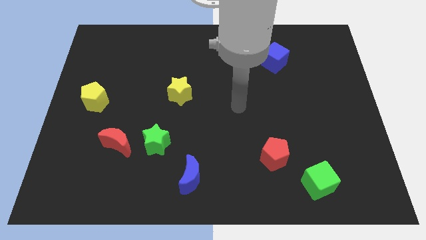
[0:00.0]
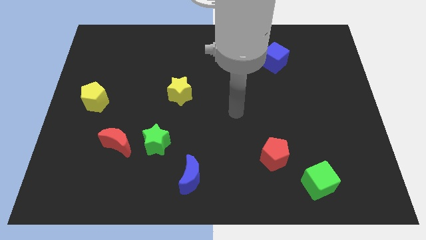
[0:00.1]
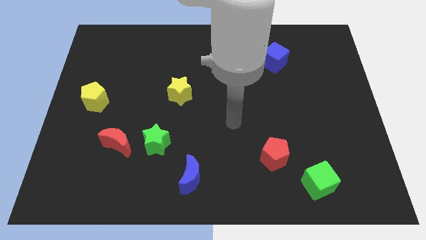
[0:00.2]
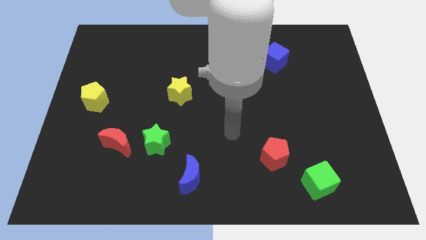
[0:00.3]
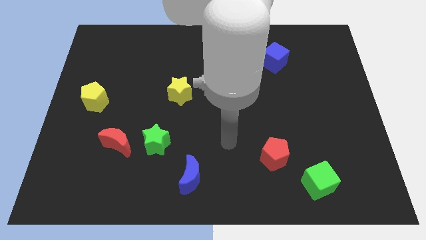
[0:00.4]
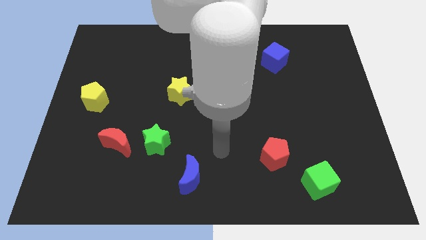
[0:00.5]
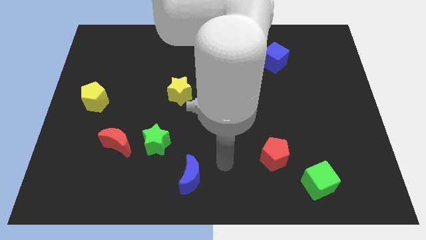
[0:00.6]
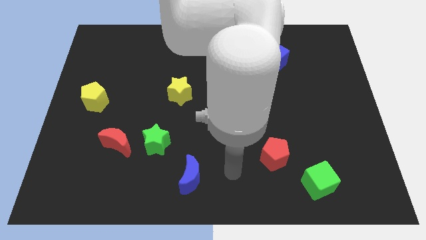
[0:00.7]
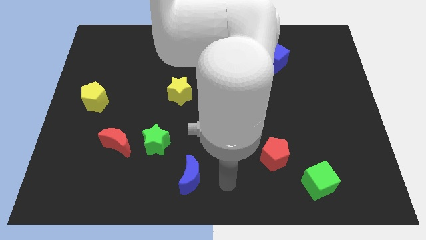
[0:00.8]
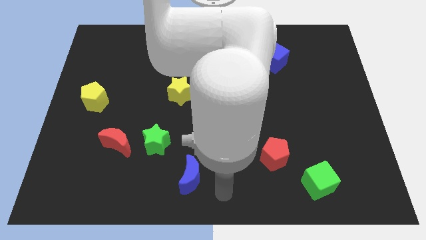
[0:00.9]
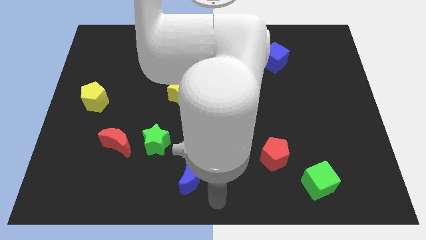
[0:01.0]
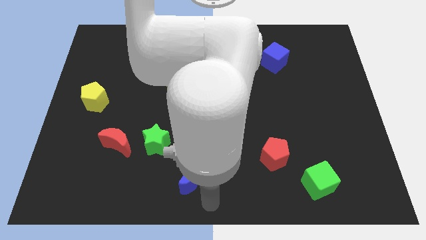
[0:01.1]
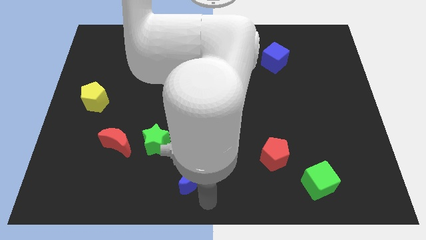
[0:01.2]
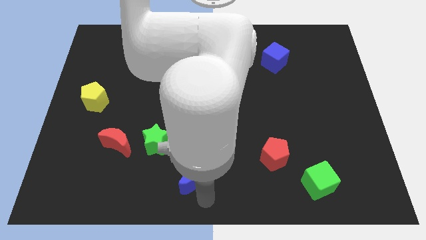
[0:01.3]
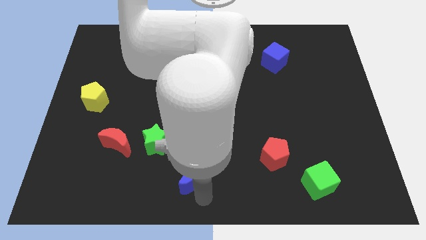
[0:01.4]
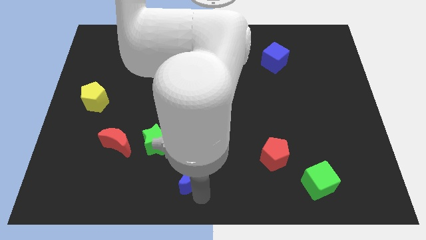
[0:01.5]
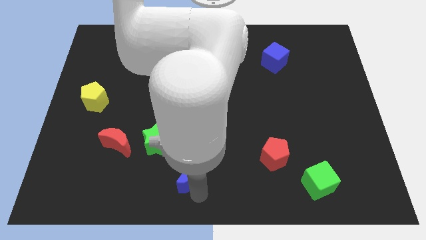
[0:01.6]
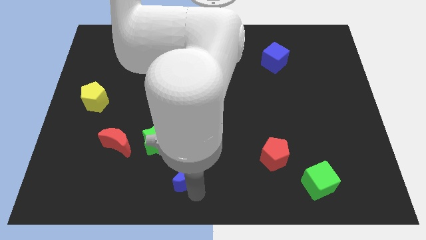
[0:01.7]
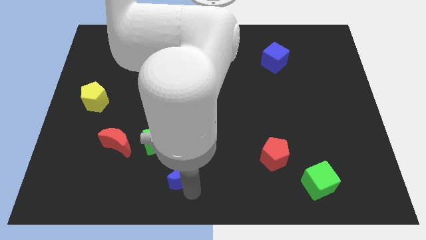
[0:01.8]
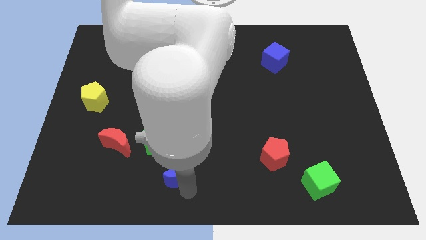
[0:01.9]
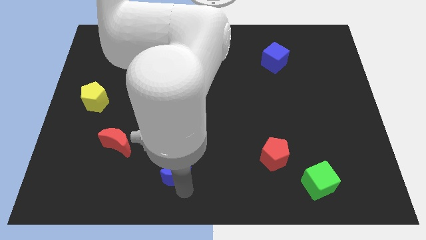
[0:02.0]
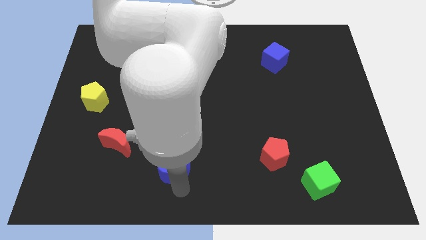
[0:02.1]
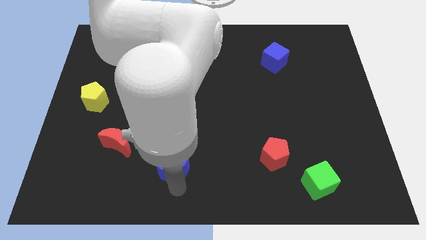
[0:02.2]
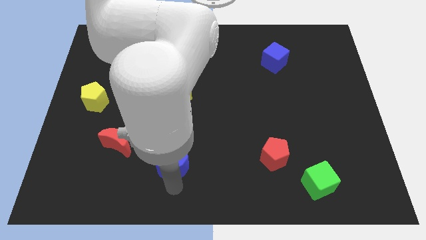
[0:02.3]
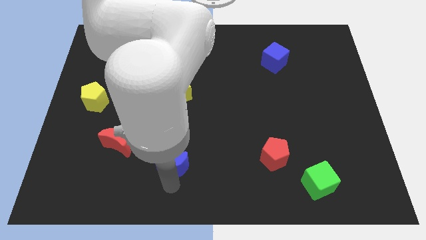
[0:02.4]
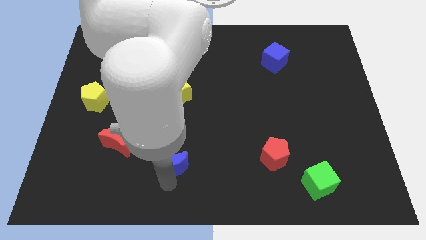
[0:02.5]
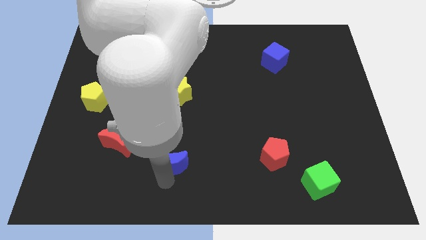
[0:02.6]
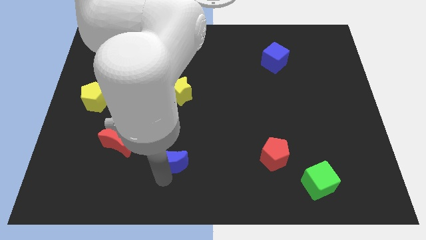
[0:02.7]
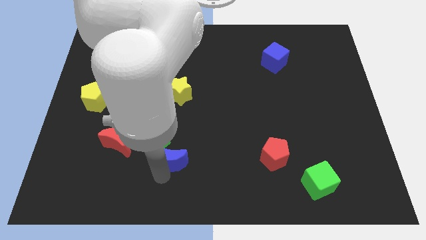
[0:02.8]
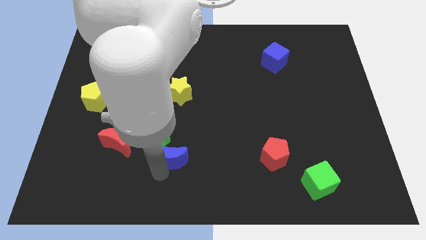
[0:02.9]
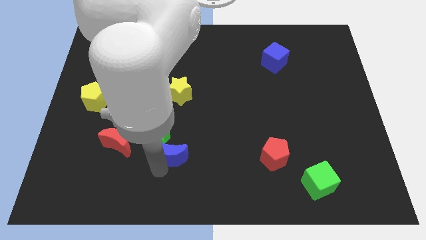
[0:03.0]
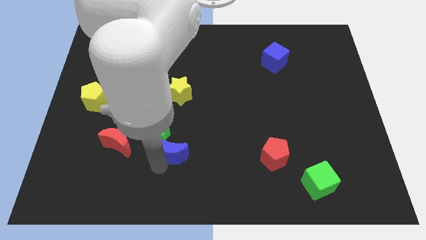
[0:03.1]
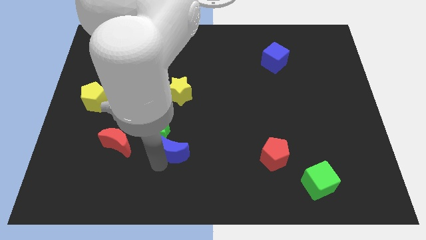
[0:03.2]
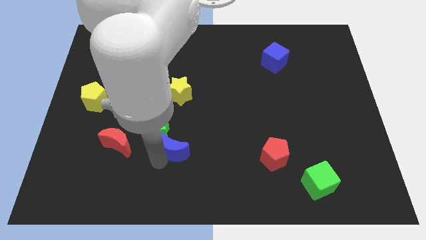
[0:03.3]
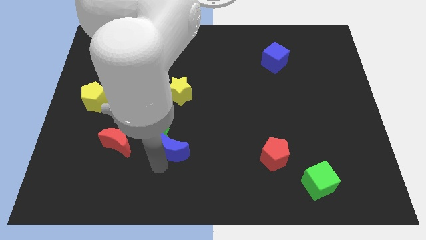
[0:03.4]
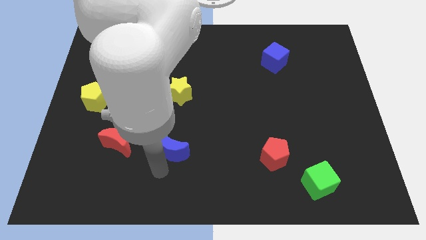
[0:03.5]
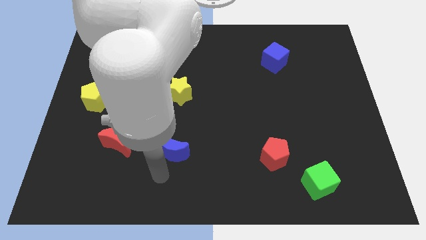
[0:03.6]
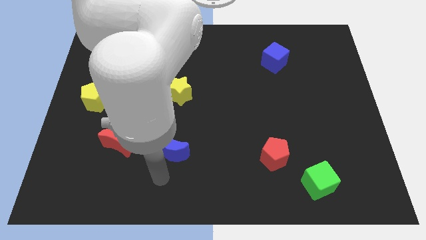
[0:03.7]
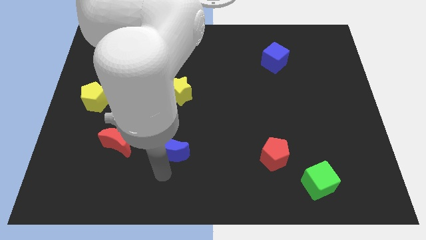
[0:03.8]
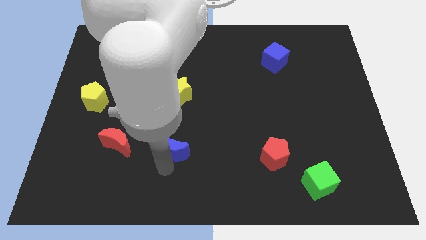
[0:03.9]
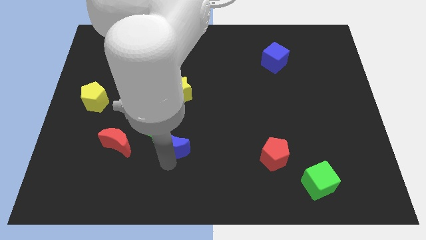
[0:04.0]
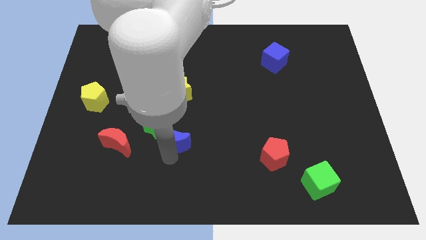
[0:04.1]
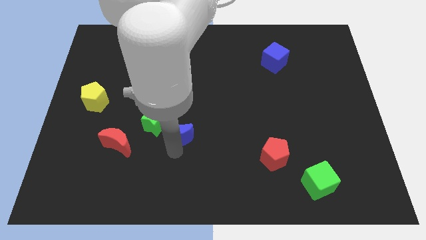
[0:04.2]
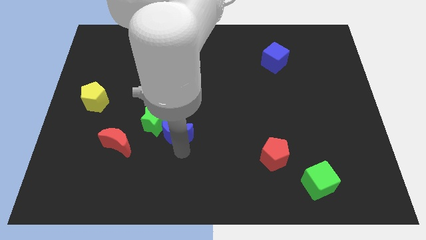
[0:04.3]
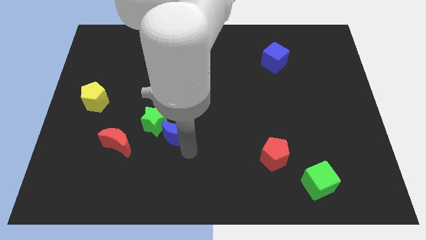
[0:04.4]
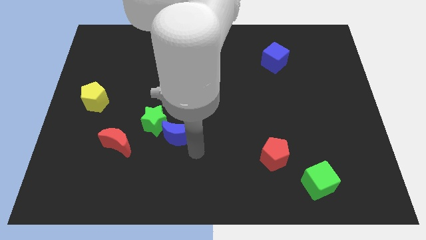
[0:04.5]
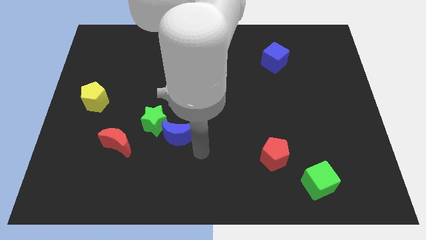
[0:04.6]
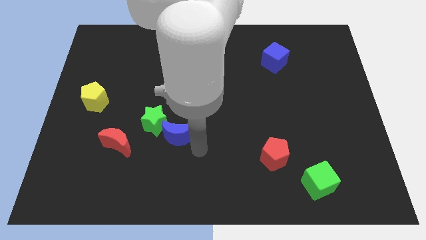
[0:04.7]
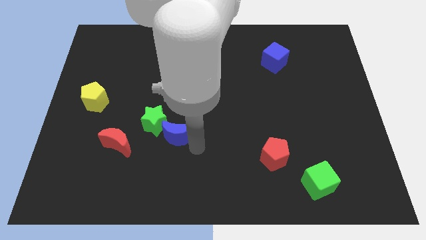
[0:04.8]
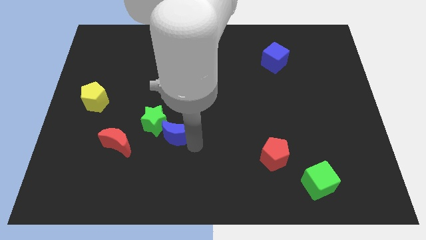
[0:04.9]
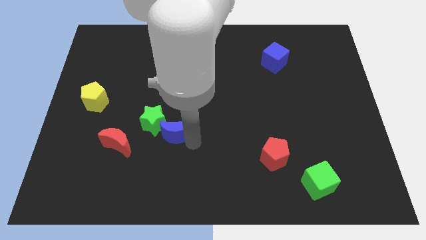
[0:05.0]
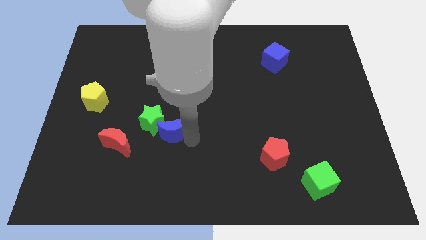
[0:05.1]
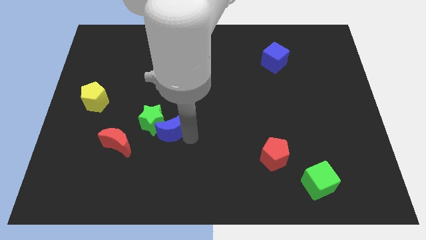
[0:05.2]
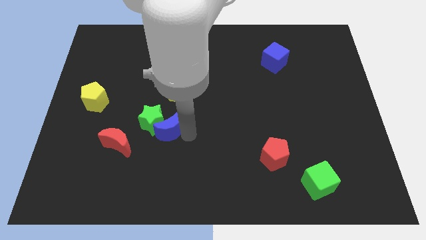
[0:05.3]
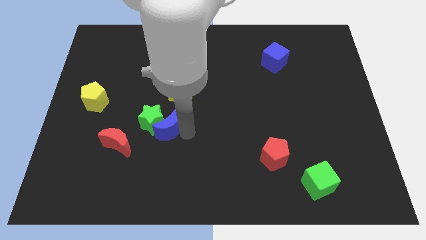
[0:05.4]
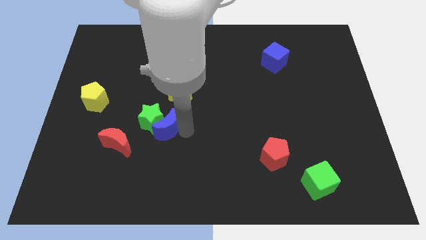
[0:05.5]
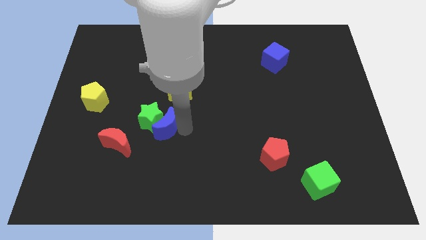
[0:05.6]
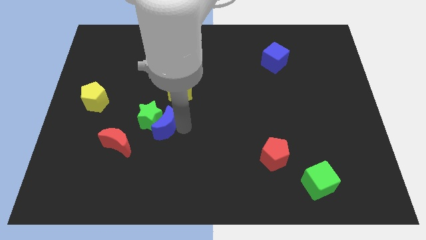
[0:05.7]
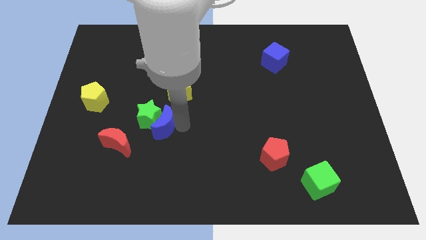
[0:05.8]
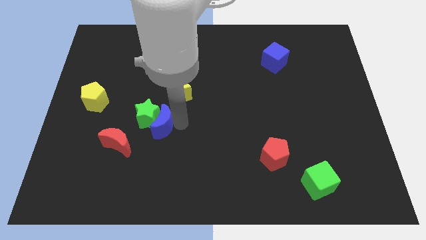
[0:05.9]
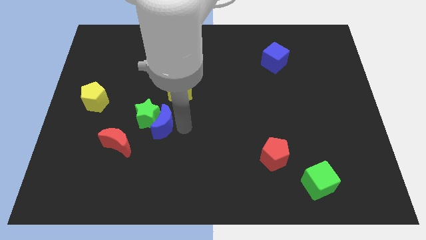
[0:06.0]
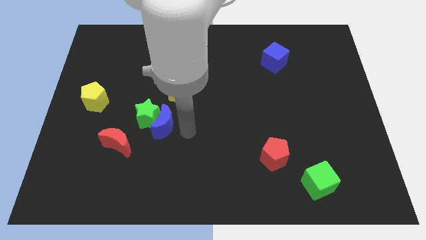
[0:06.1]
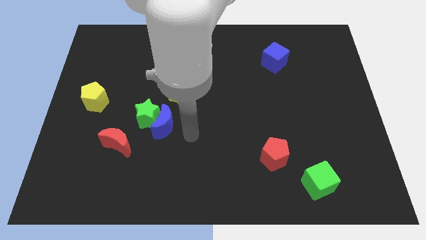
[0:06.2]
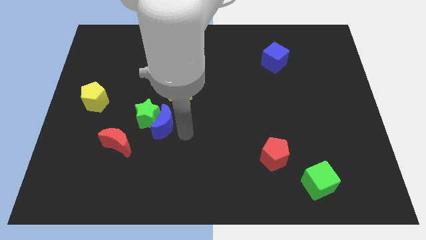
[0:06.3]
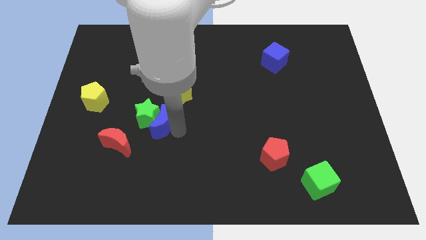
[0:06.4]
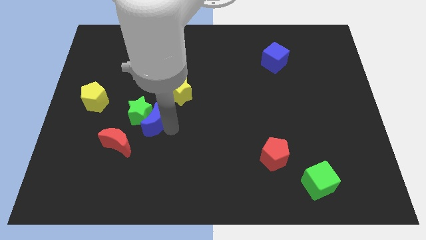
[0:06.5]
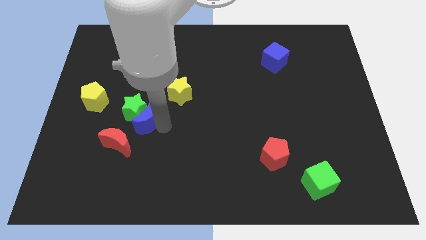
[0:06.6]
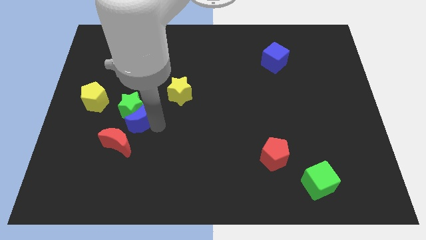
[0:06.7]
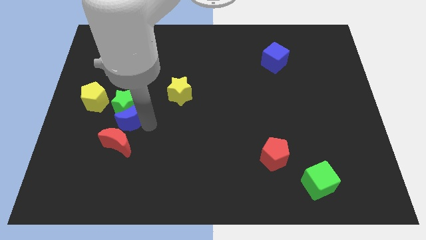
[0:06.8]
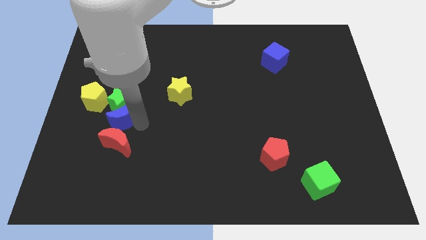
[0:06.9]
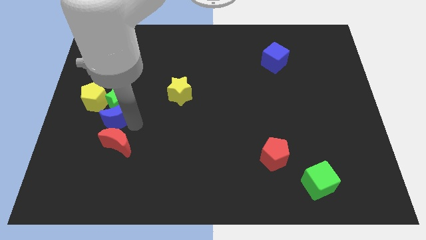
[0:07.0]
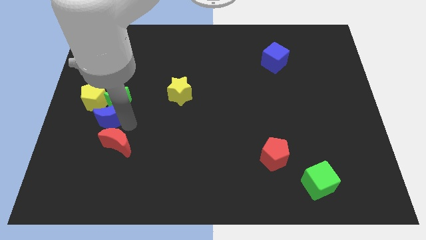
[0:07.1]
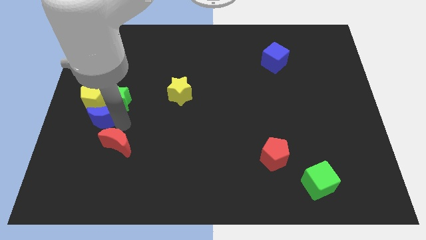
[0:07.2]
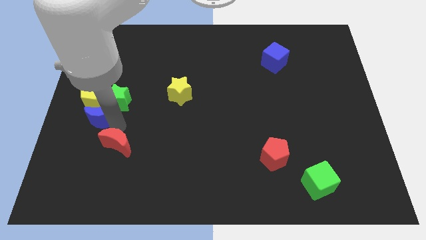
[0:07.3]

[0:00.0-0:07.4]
put the blue moon next to the yellow pentagon
